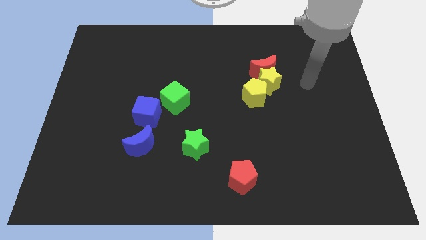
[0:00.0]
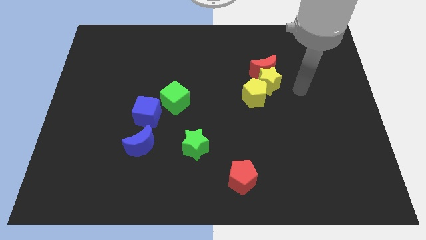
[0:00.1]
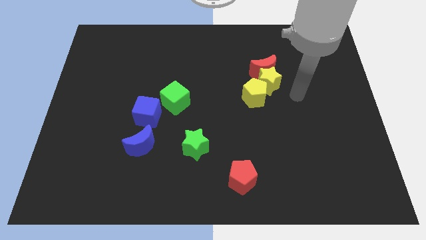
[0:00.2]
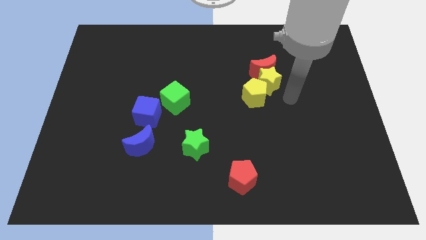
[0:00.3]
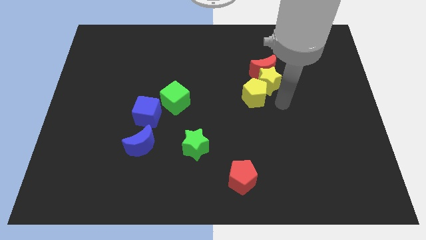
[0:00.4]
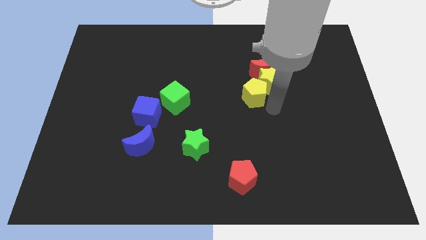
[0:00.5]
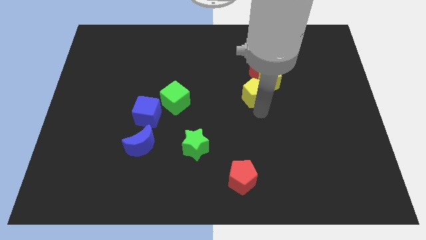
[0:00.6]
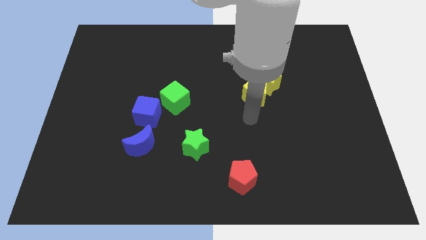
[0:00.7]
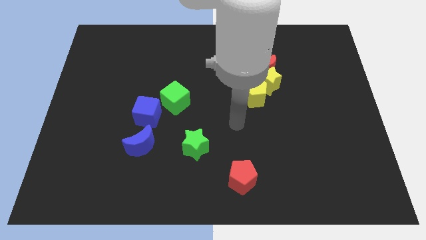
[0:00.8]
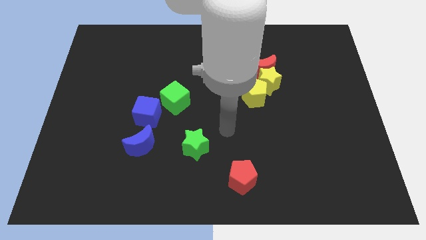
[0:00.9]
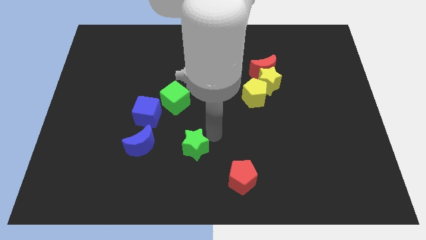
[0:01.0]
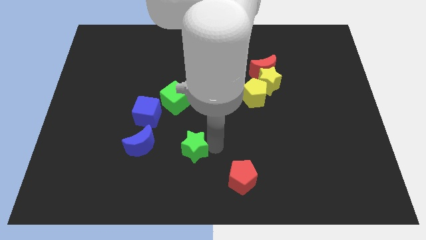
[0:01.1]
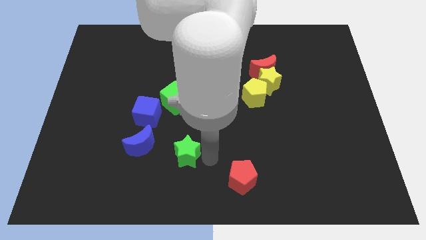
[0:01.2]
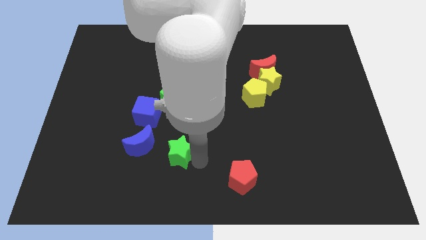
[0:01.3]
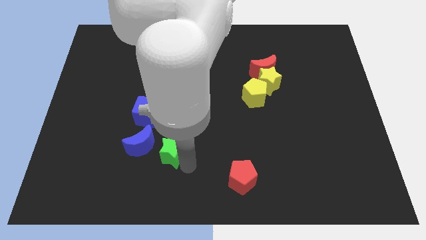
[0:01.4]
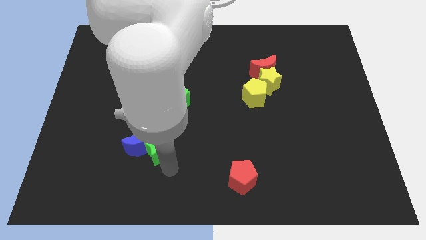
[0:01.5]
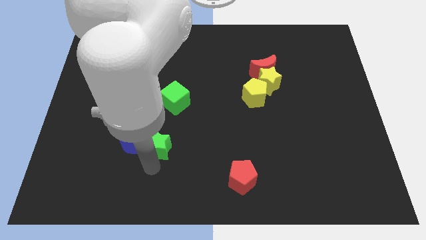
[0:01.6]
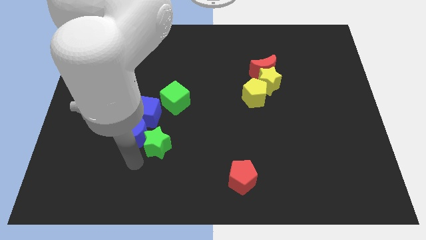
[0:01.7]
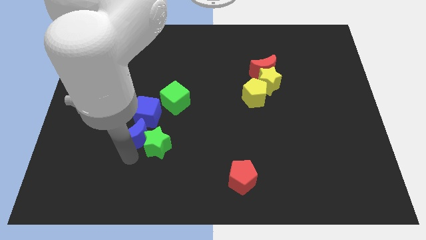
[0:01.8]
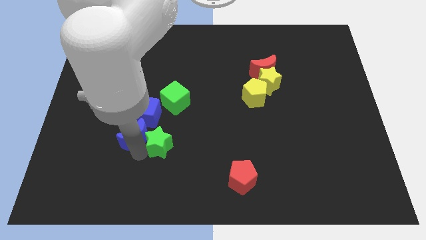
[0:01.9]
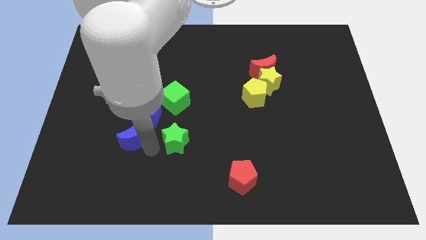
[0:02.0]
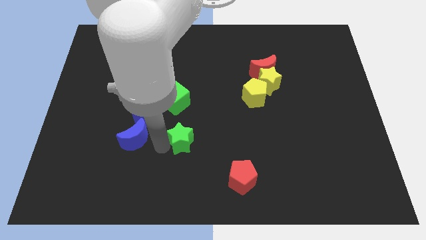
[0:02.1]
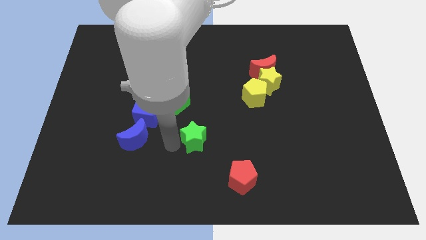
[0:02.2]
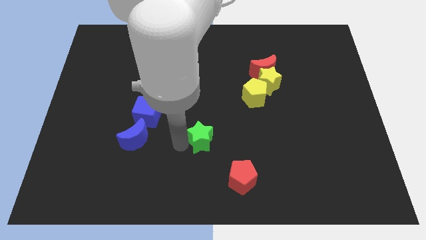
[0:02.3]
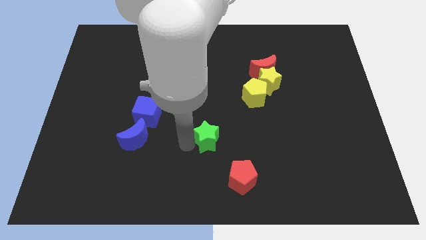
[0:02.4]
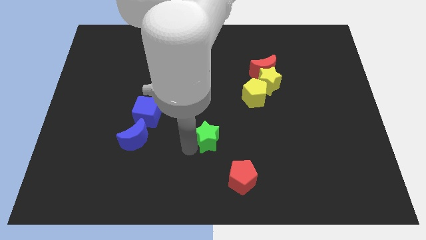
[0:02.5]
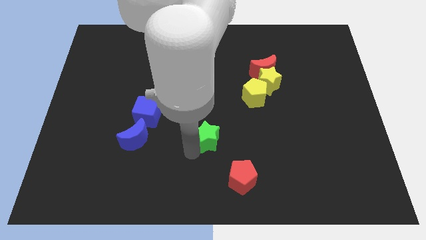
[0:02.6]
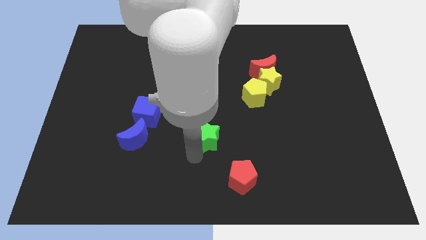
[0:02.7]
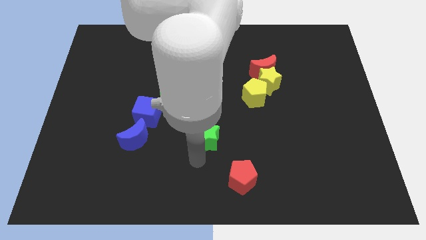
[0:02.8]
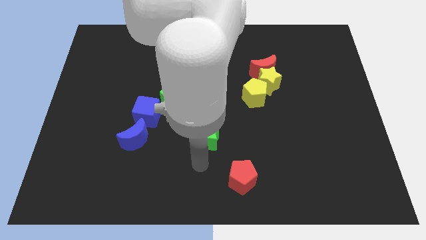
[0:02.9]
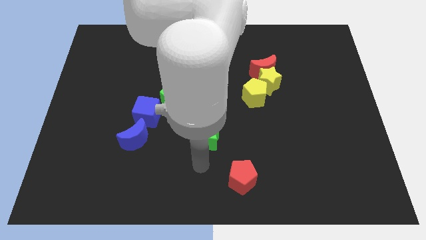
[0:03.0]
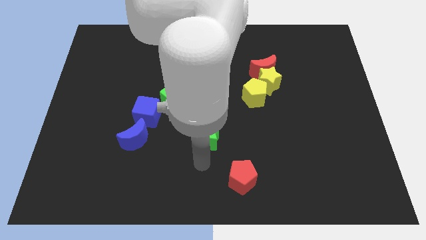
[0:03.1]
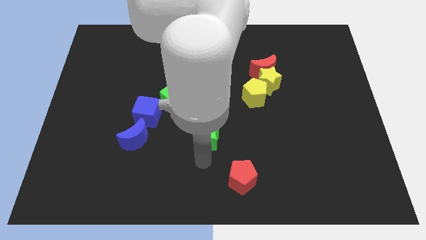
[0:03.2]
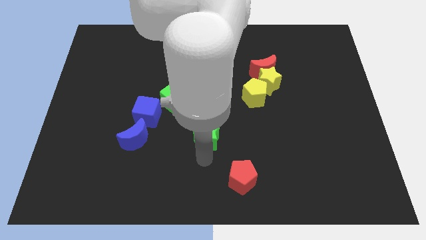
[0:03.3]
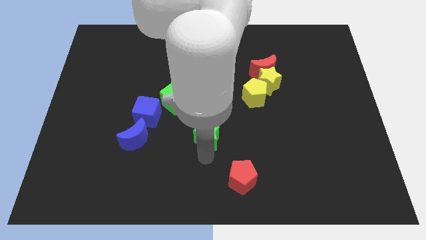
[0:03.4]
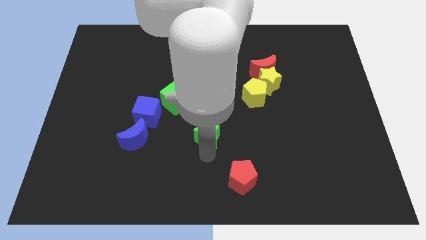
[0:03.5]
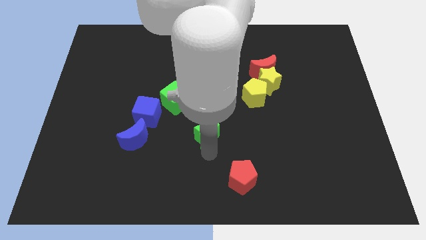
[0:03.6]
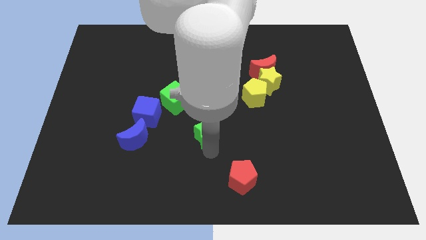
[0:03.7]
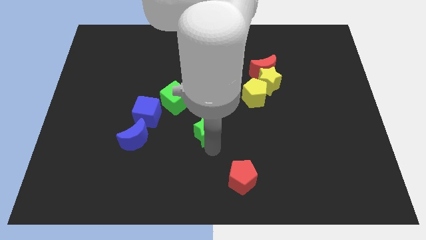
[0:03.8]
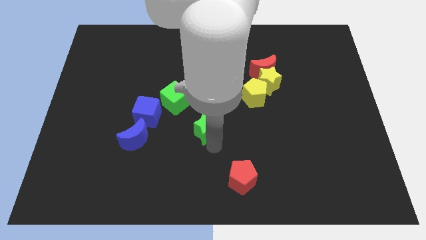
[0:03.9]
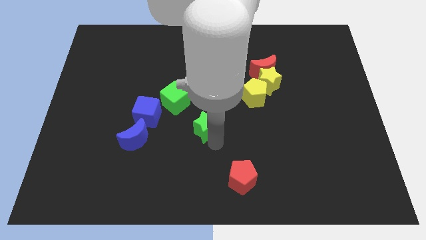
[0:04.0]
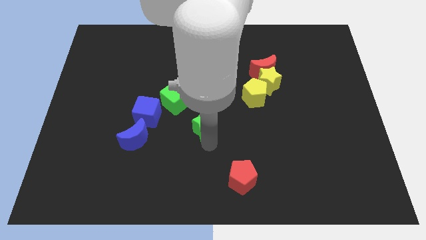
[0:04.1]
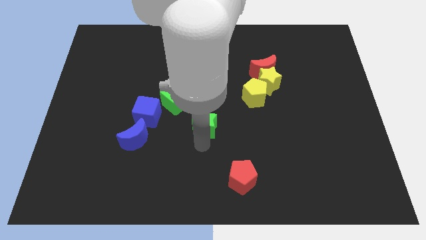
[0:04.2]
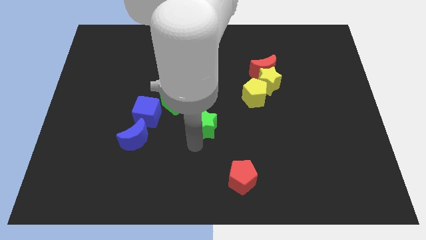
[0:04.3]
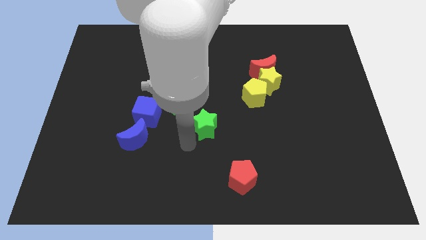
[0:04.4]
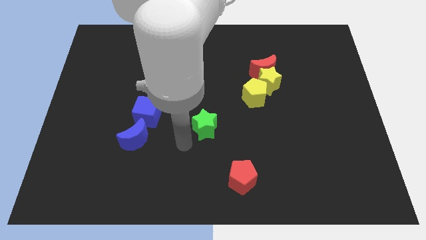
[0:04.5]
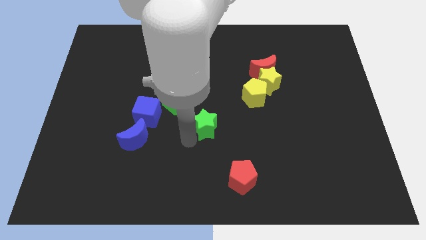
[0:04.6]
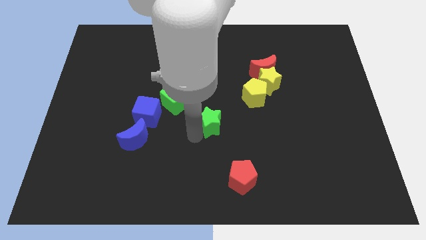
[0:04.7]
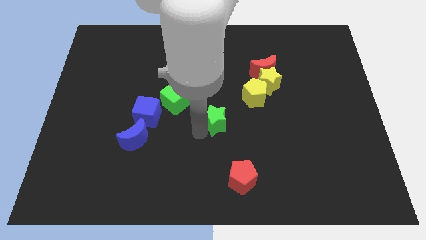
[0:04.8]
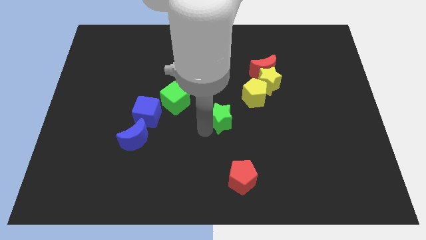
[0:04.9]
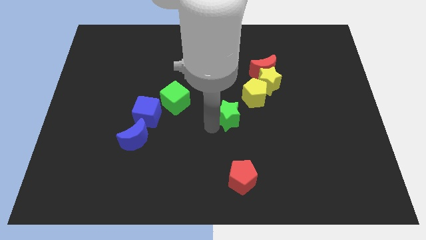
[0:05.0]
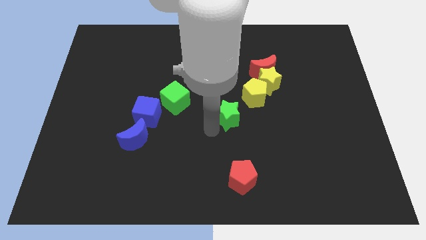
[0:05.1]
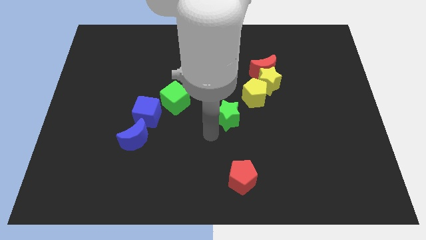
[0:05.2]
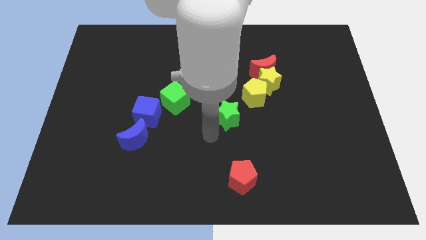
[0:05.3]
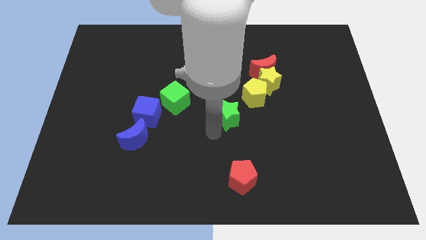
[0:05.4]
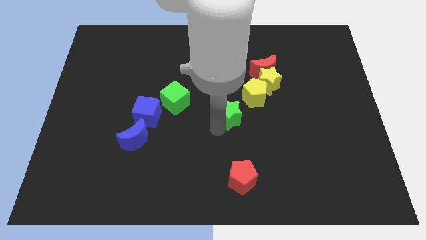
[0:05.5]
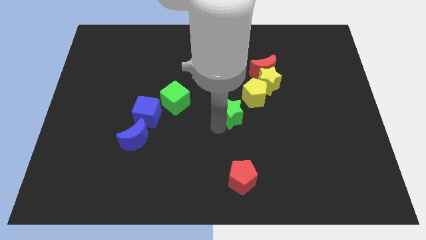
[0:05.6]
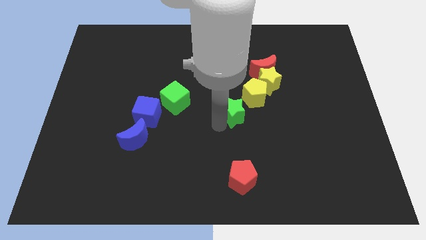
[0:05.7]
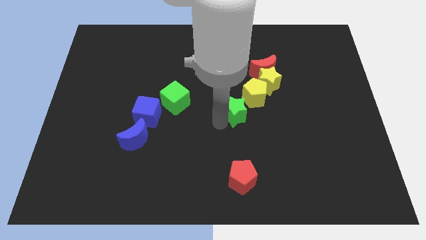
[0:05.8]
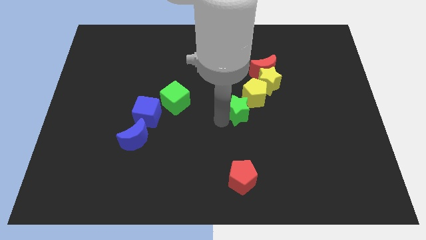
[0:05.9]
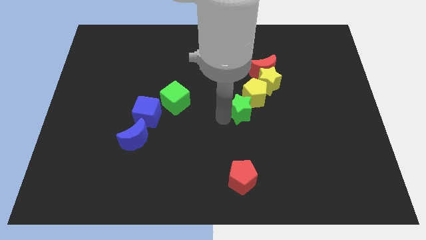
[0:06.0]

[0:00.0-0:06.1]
put the green star next to the yellow pentagon

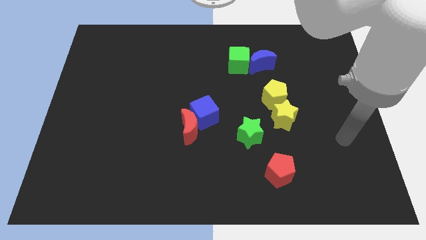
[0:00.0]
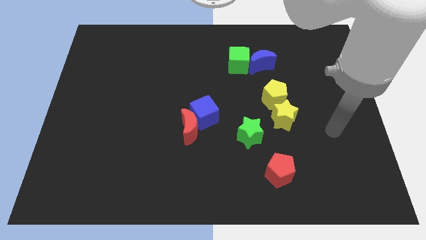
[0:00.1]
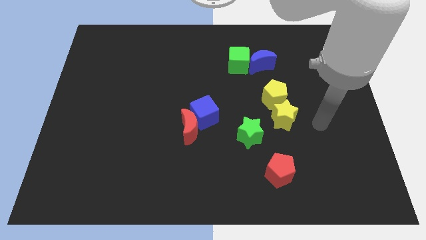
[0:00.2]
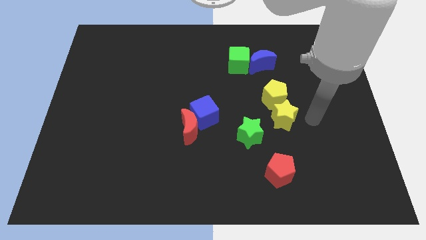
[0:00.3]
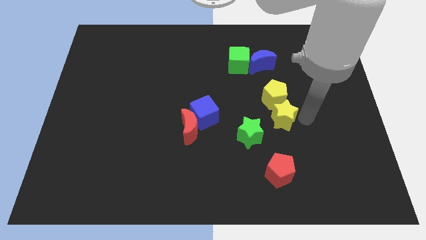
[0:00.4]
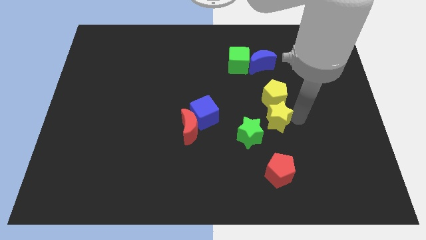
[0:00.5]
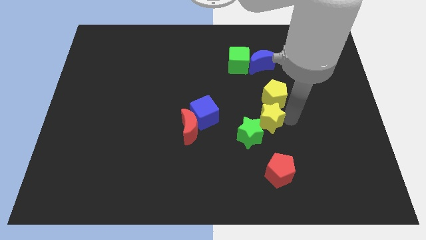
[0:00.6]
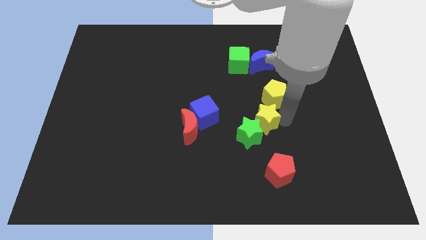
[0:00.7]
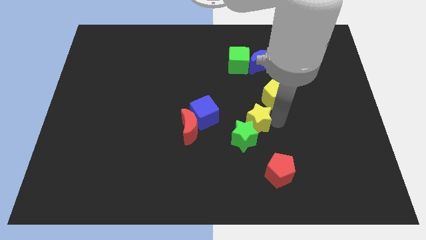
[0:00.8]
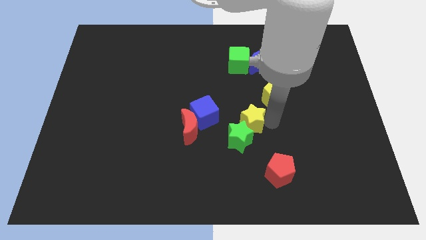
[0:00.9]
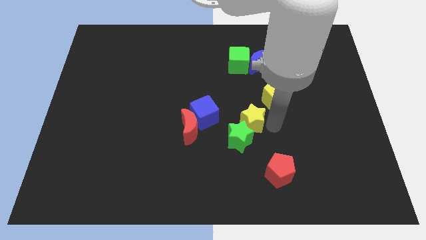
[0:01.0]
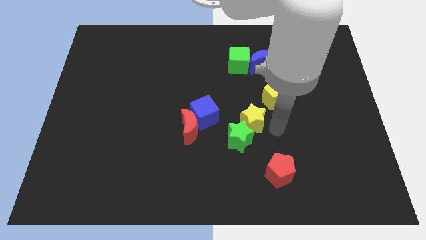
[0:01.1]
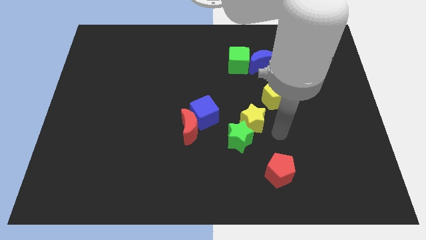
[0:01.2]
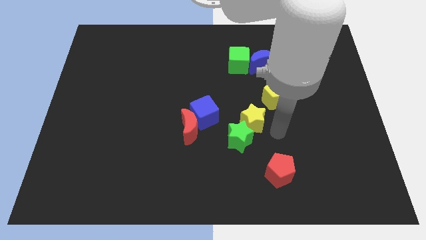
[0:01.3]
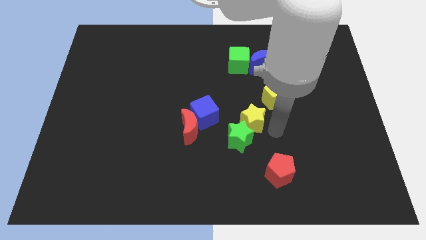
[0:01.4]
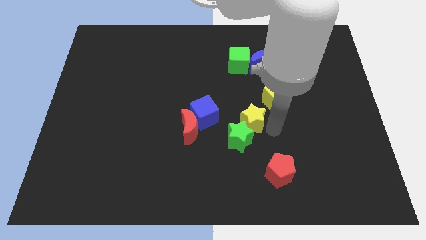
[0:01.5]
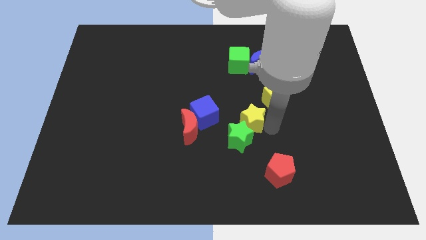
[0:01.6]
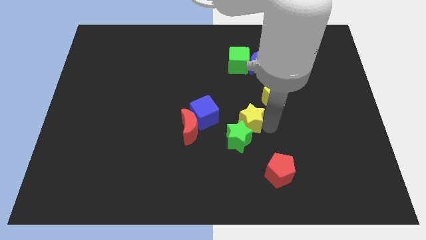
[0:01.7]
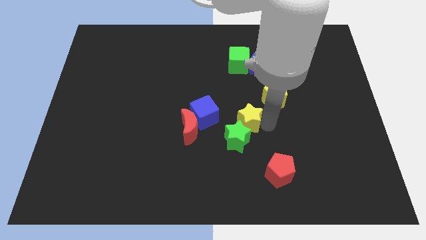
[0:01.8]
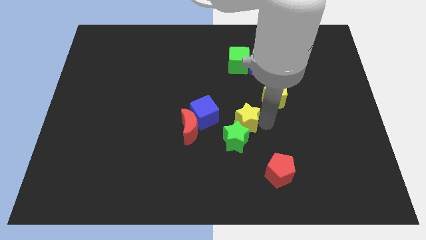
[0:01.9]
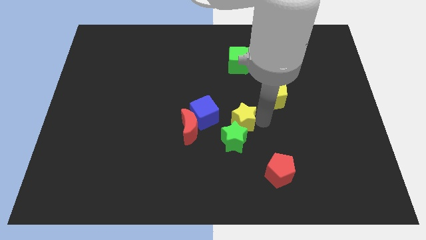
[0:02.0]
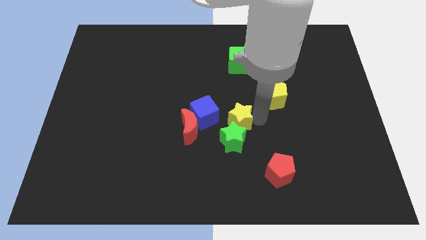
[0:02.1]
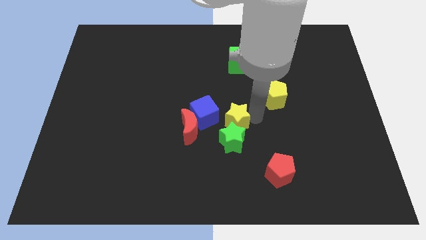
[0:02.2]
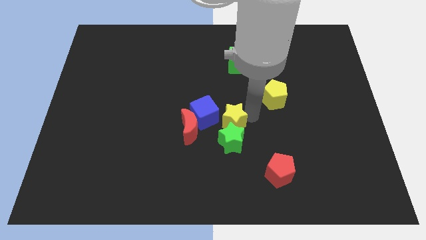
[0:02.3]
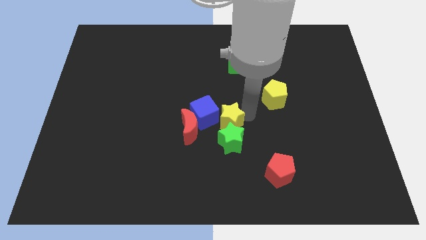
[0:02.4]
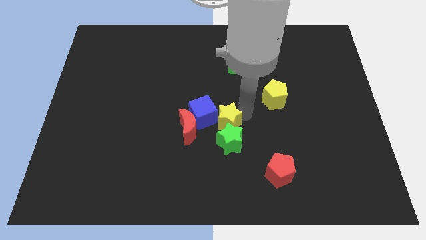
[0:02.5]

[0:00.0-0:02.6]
move the yellow star to the blue cube
